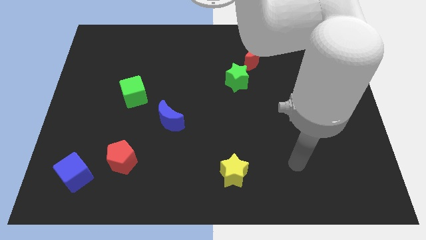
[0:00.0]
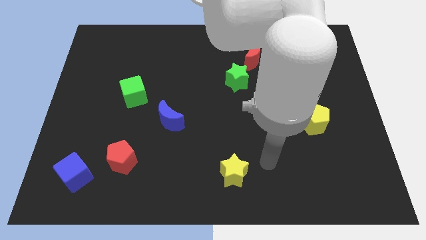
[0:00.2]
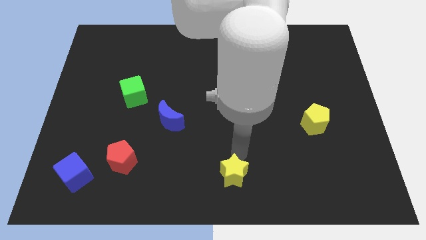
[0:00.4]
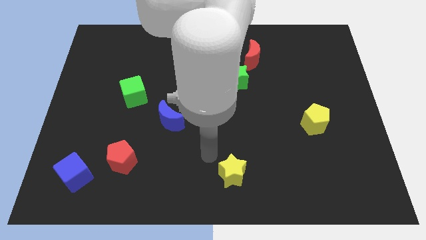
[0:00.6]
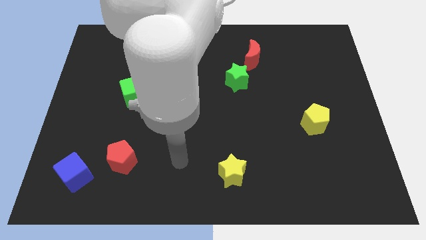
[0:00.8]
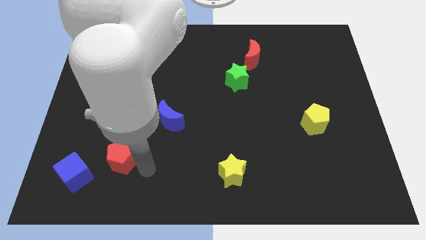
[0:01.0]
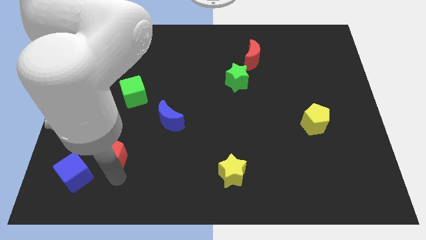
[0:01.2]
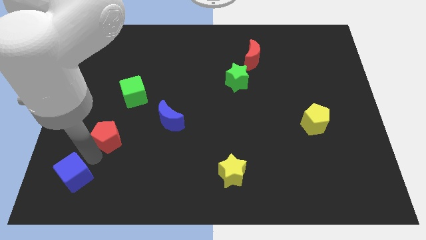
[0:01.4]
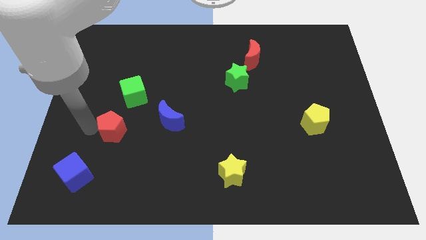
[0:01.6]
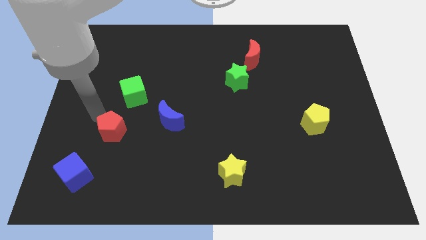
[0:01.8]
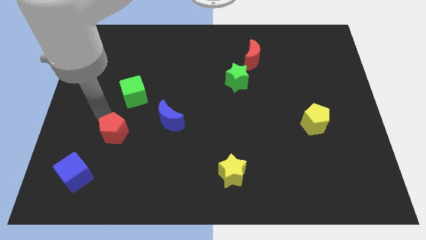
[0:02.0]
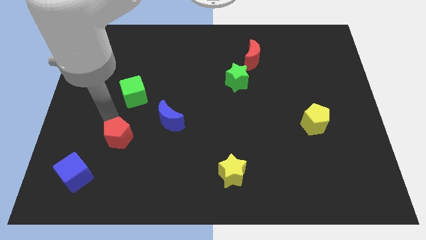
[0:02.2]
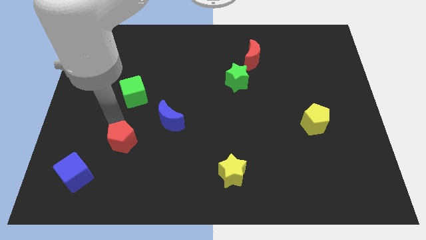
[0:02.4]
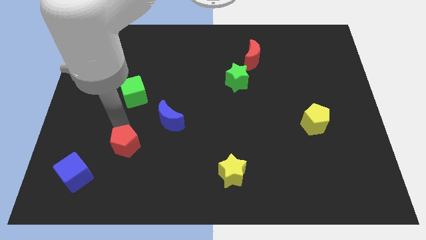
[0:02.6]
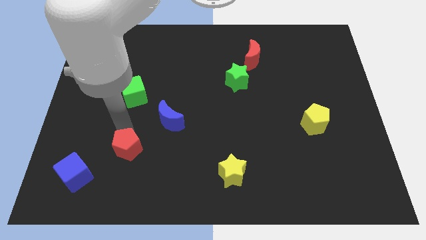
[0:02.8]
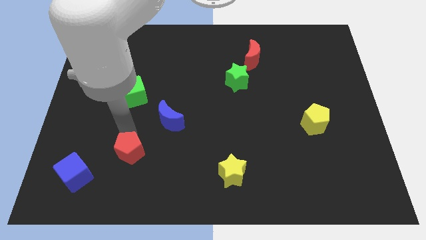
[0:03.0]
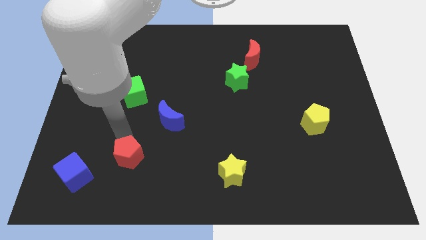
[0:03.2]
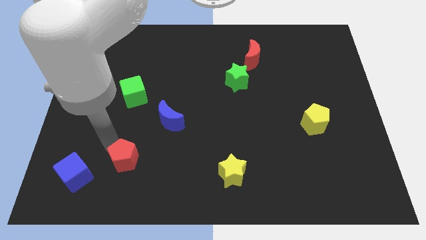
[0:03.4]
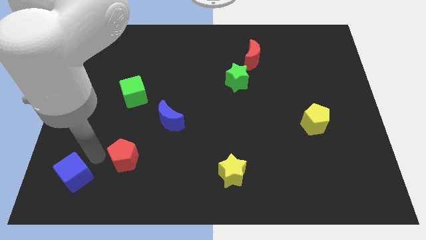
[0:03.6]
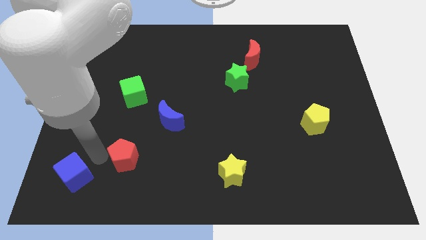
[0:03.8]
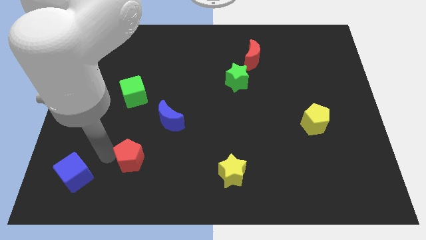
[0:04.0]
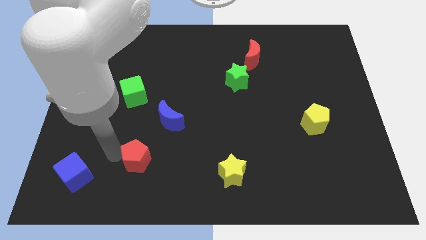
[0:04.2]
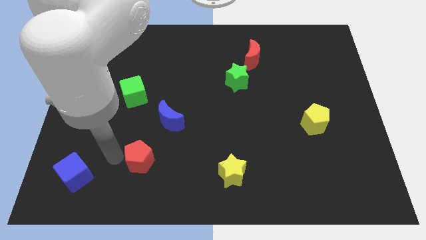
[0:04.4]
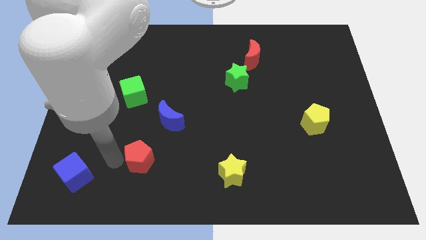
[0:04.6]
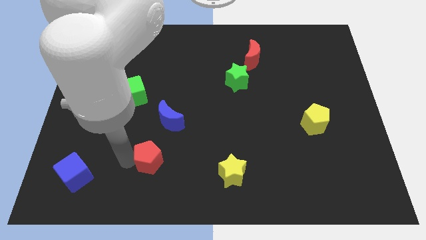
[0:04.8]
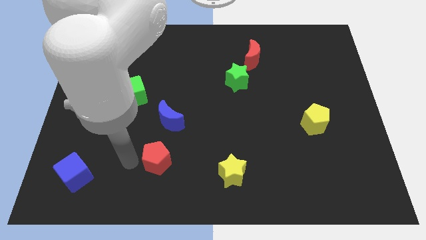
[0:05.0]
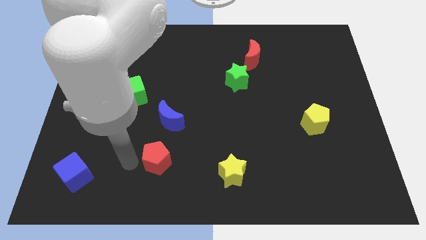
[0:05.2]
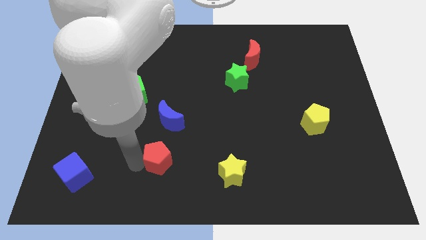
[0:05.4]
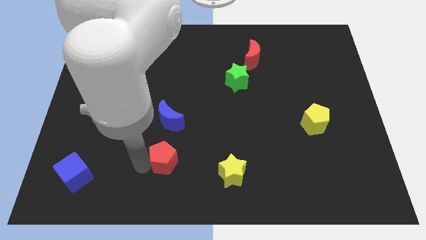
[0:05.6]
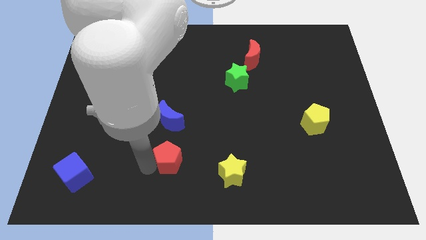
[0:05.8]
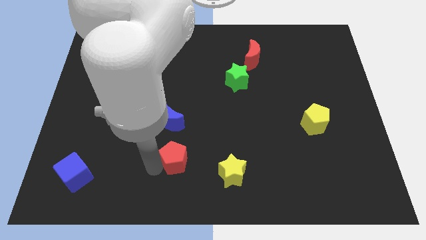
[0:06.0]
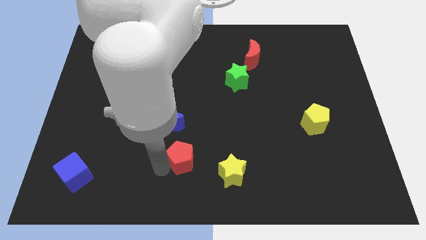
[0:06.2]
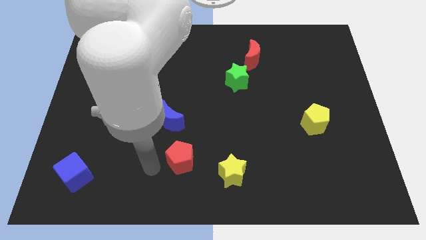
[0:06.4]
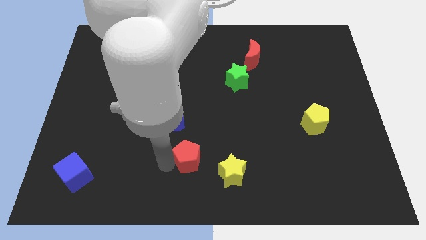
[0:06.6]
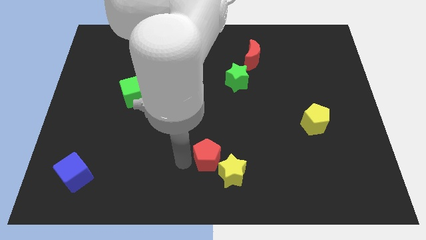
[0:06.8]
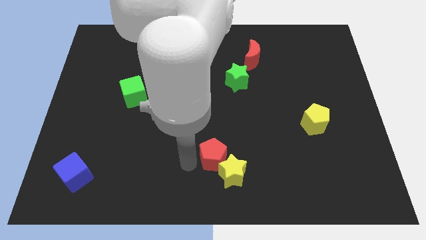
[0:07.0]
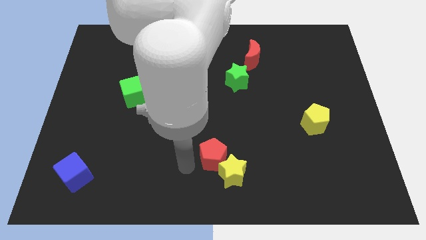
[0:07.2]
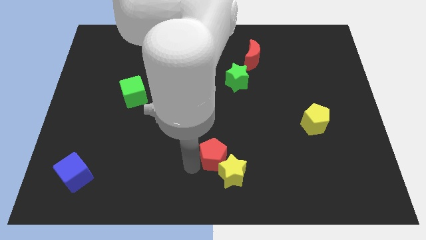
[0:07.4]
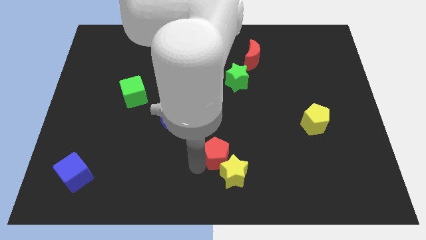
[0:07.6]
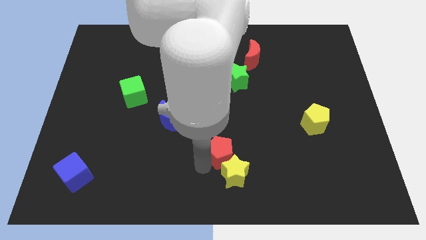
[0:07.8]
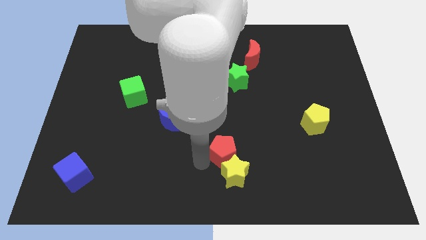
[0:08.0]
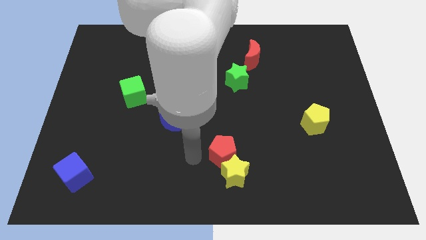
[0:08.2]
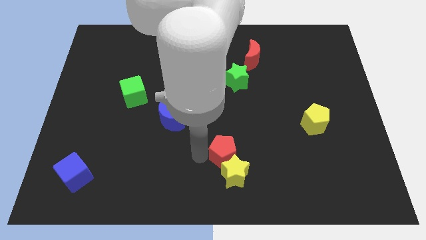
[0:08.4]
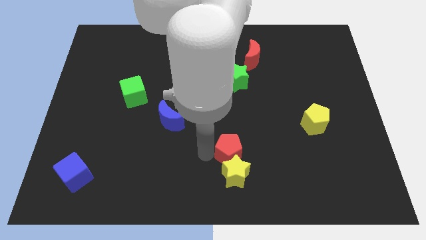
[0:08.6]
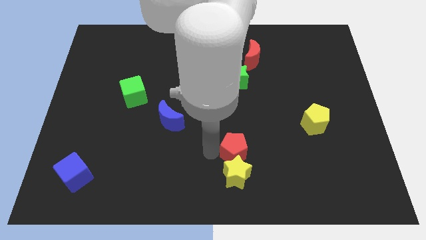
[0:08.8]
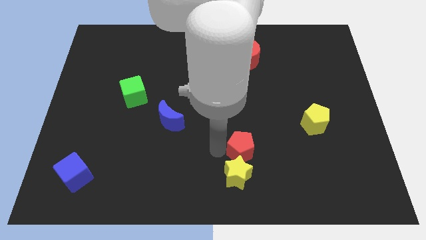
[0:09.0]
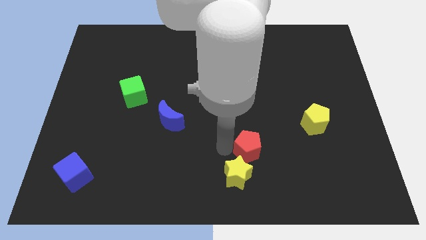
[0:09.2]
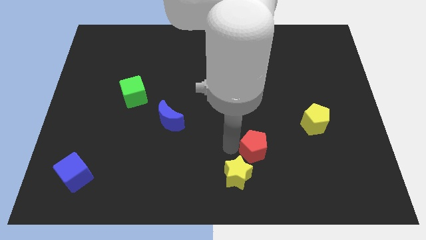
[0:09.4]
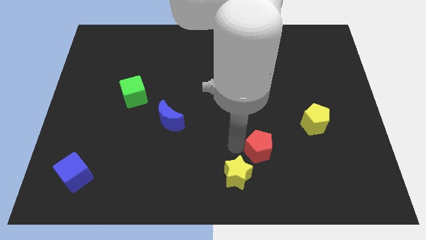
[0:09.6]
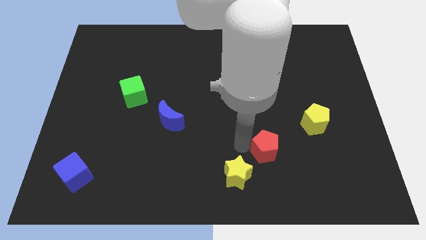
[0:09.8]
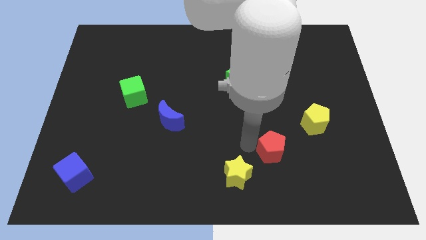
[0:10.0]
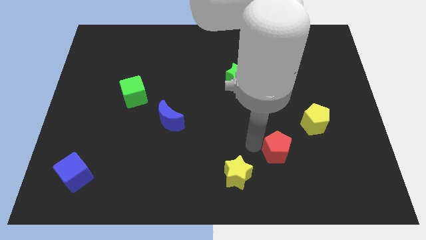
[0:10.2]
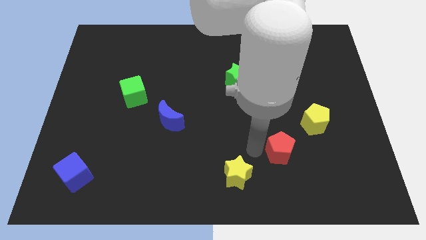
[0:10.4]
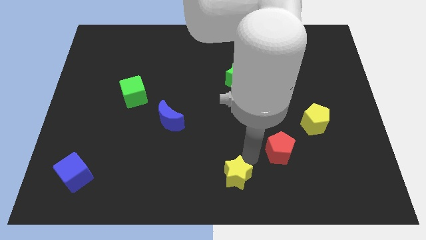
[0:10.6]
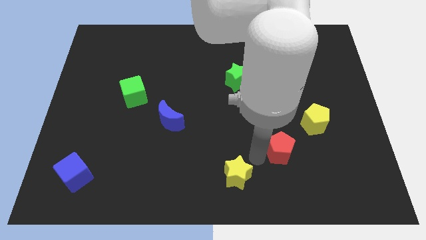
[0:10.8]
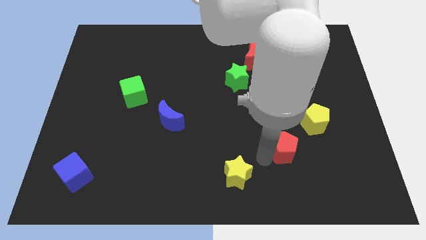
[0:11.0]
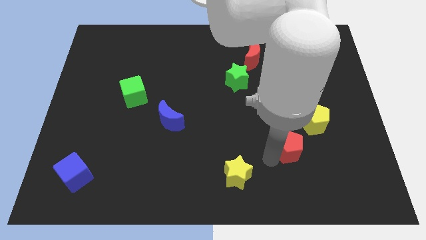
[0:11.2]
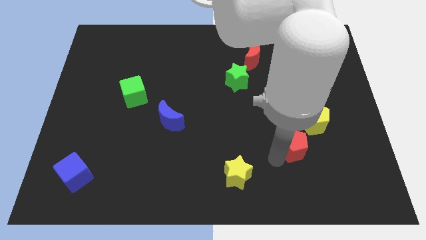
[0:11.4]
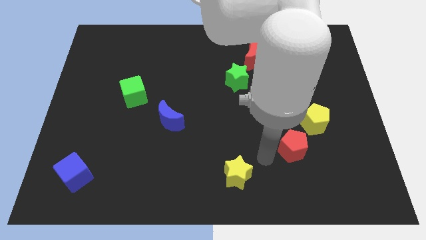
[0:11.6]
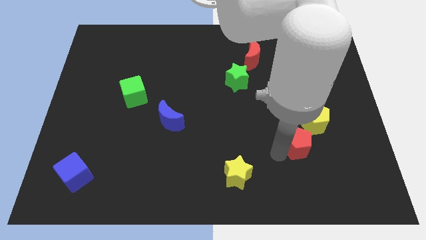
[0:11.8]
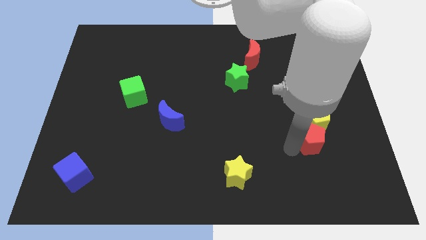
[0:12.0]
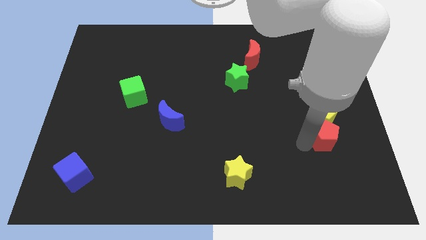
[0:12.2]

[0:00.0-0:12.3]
slide the red pentagon diagonally down and to the right of the yellow pentagon

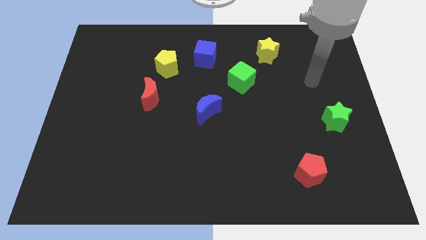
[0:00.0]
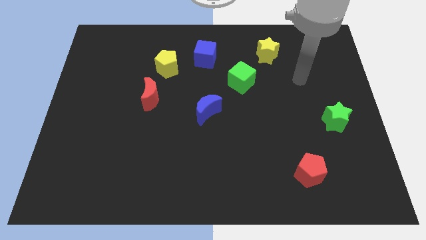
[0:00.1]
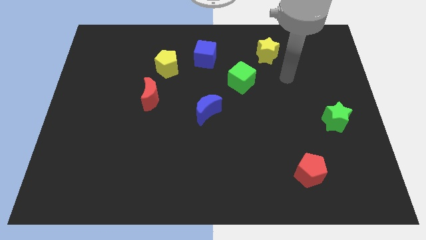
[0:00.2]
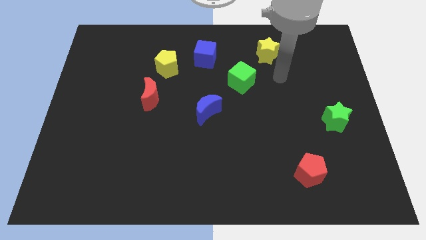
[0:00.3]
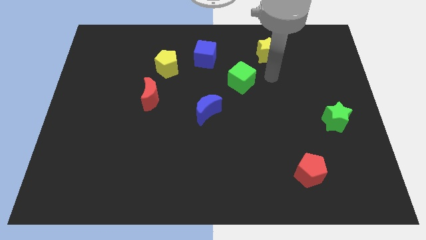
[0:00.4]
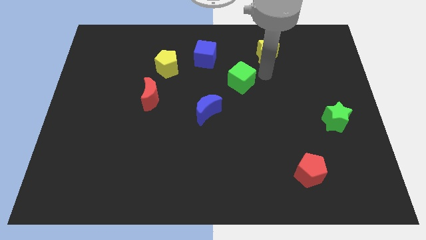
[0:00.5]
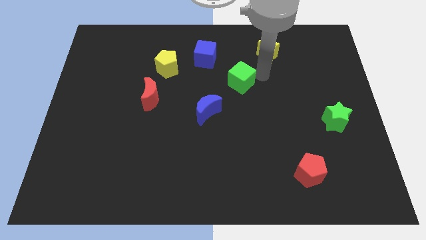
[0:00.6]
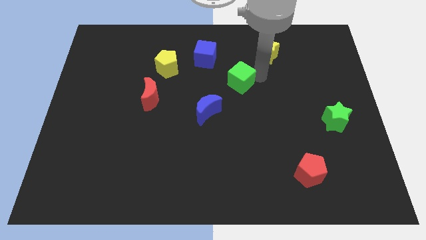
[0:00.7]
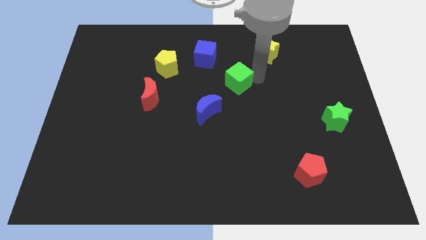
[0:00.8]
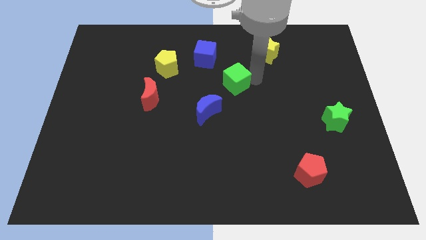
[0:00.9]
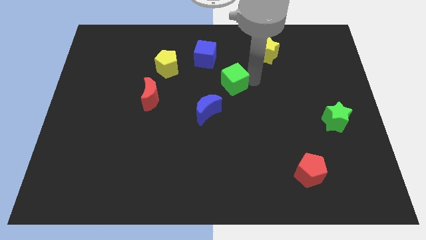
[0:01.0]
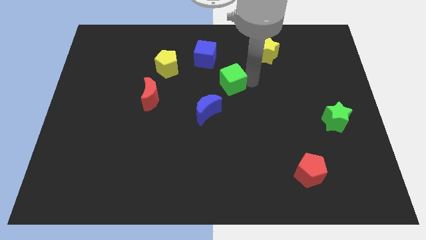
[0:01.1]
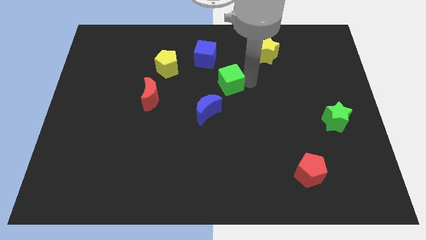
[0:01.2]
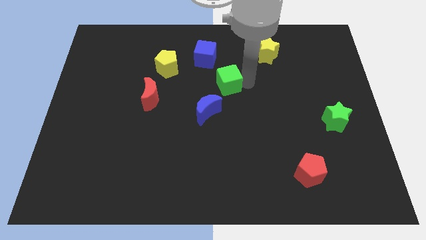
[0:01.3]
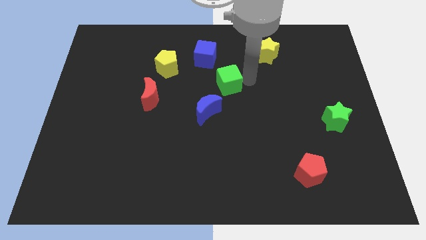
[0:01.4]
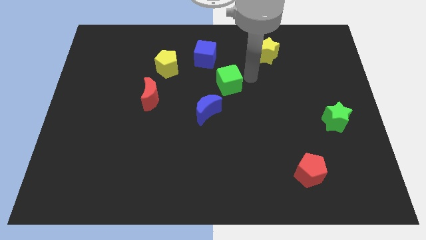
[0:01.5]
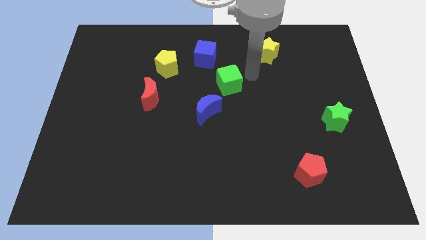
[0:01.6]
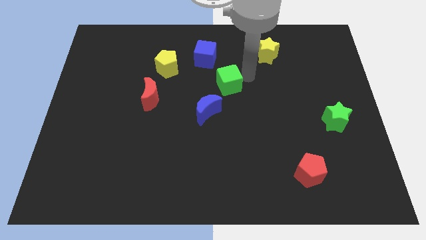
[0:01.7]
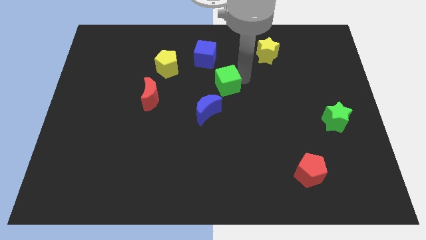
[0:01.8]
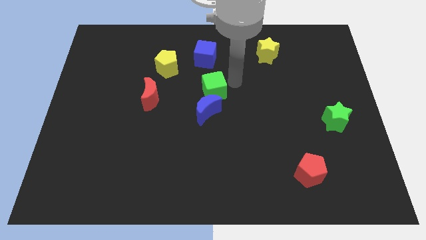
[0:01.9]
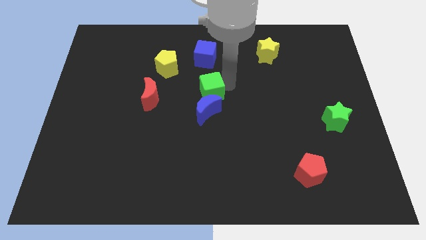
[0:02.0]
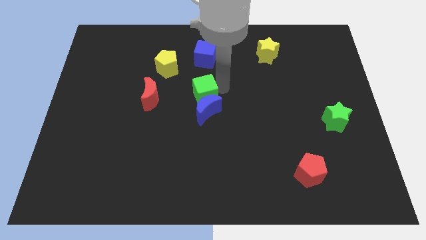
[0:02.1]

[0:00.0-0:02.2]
move the green cube to the top left of the blue moon
